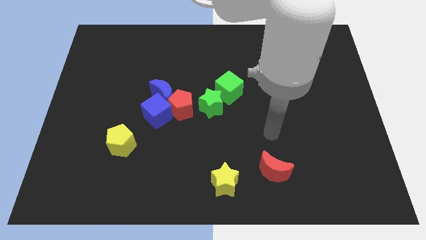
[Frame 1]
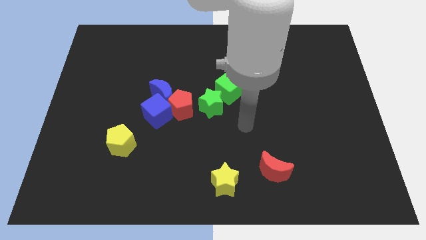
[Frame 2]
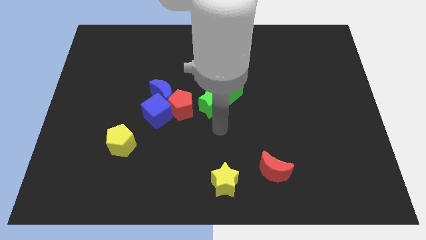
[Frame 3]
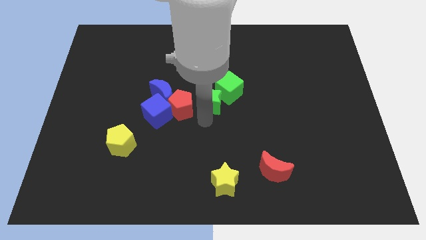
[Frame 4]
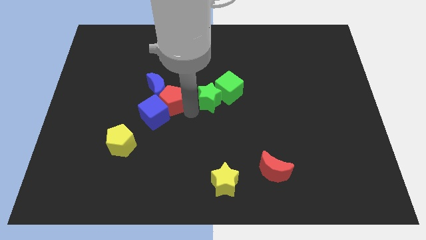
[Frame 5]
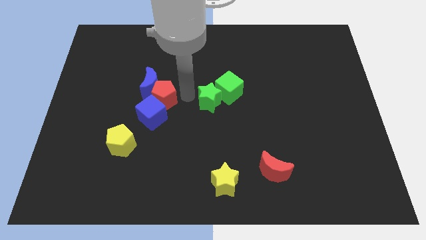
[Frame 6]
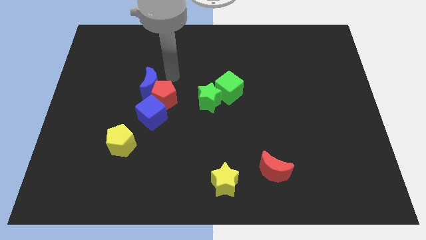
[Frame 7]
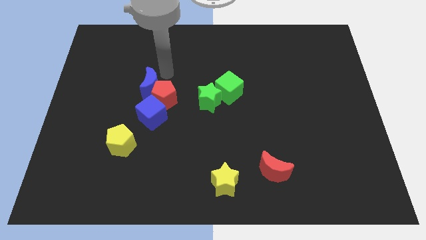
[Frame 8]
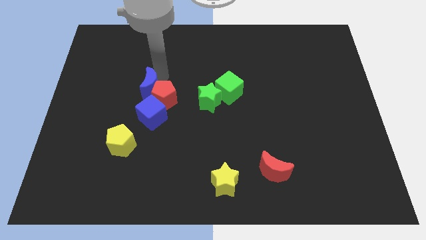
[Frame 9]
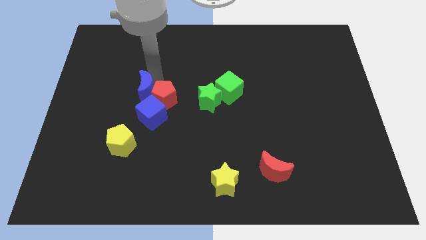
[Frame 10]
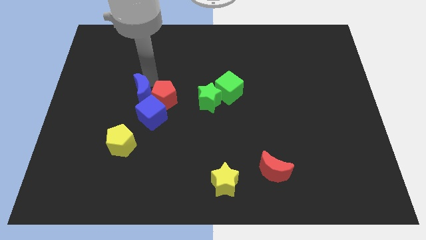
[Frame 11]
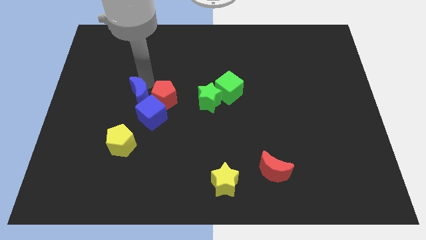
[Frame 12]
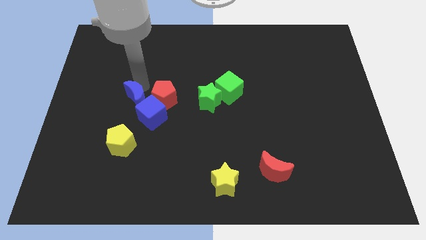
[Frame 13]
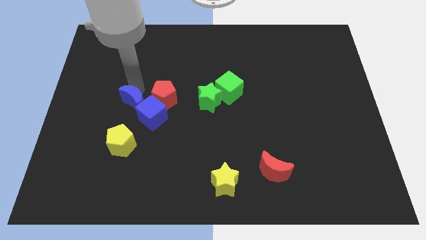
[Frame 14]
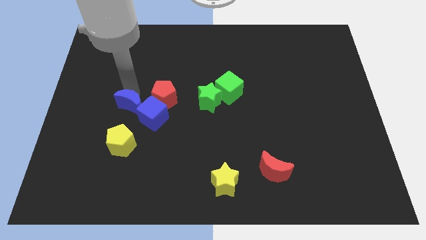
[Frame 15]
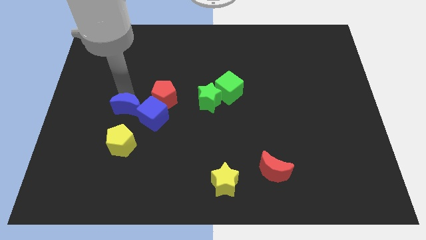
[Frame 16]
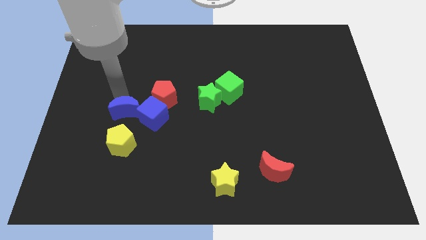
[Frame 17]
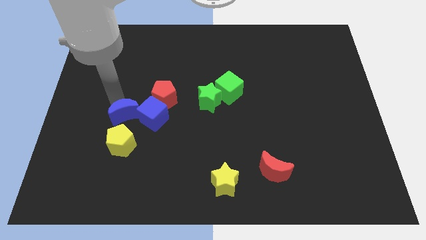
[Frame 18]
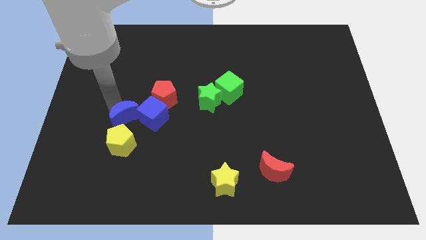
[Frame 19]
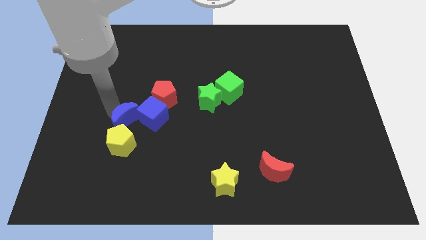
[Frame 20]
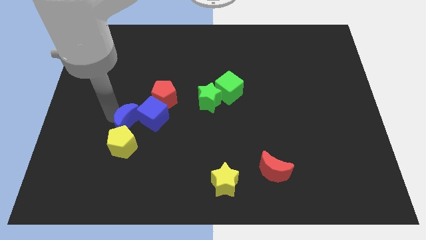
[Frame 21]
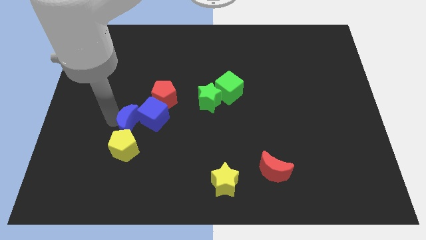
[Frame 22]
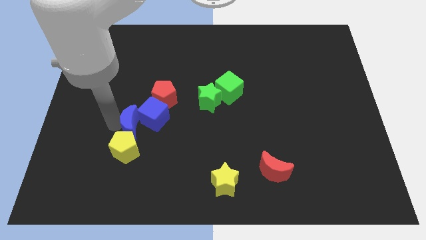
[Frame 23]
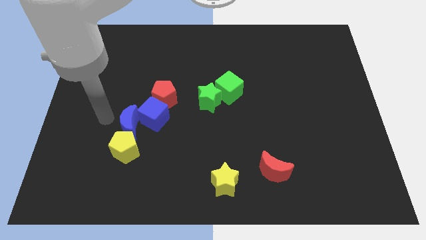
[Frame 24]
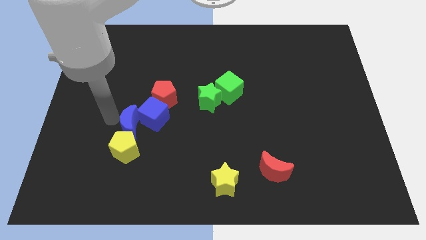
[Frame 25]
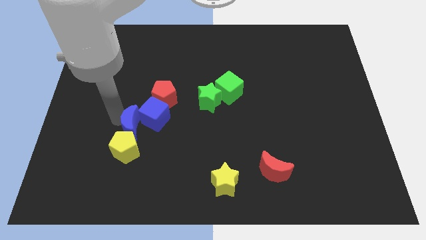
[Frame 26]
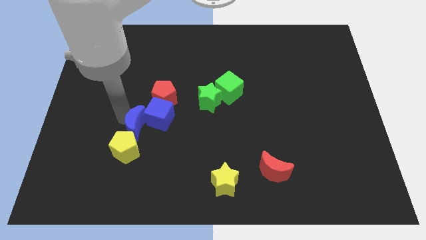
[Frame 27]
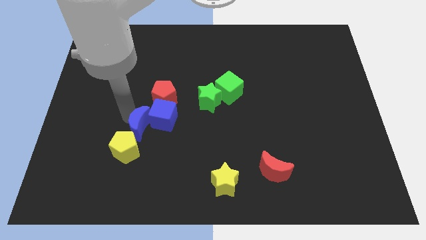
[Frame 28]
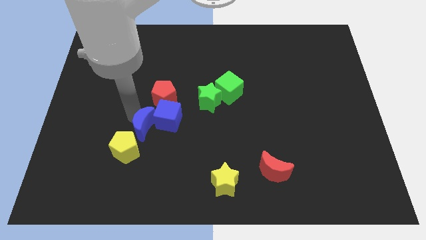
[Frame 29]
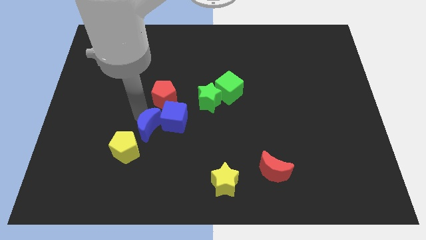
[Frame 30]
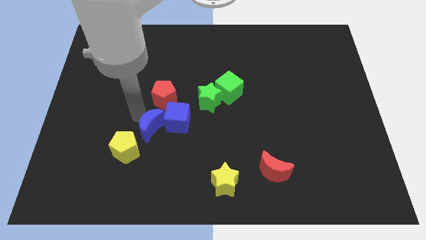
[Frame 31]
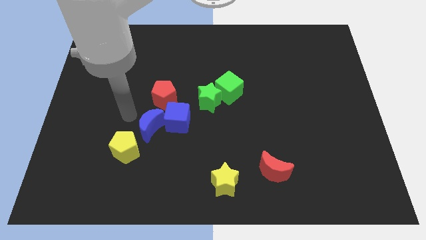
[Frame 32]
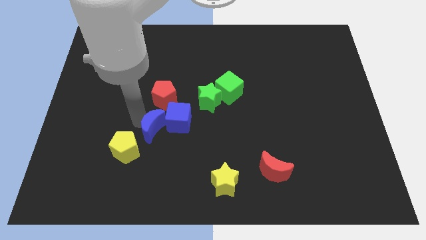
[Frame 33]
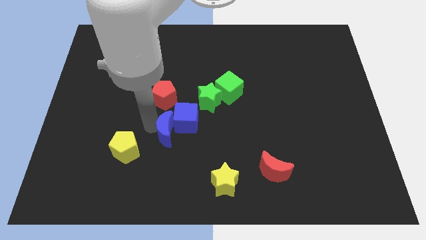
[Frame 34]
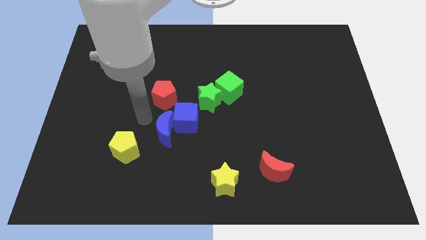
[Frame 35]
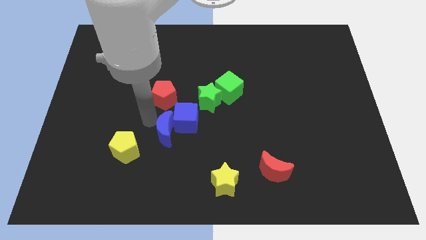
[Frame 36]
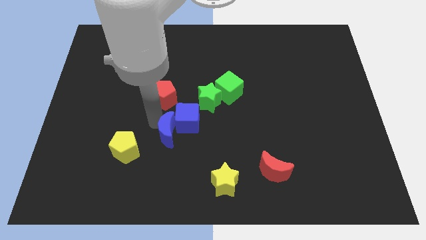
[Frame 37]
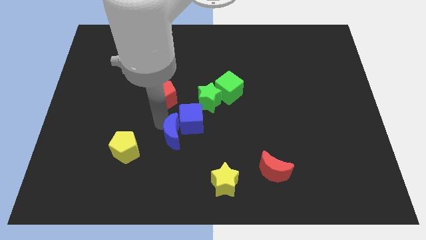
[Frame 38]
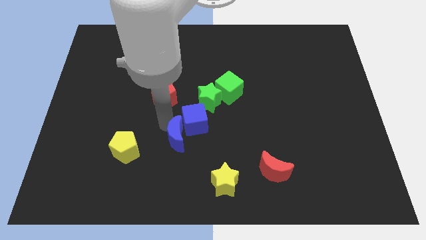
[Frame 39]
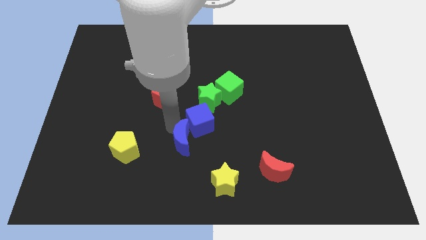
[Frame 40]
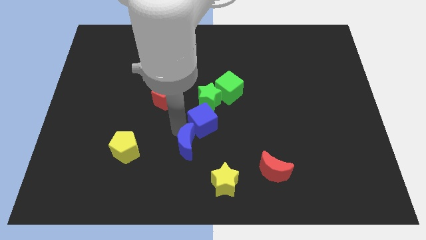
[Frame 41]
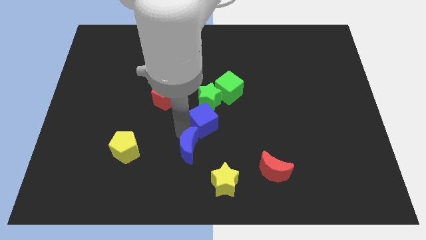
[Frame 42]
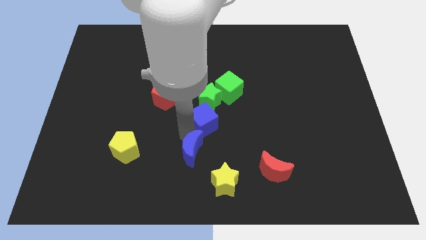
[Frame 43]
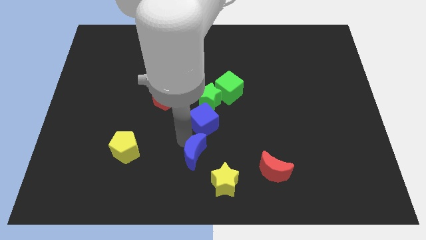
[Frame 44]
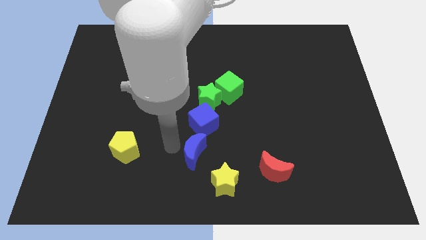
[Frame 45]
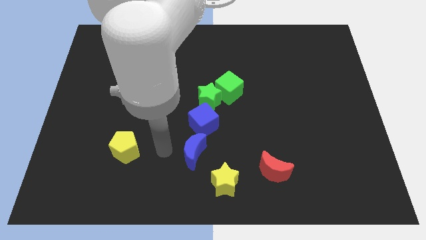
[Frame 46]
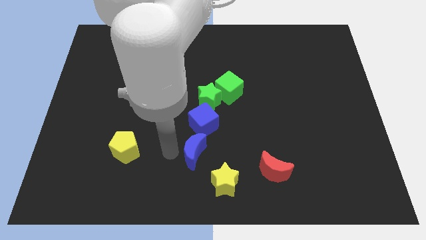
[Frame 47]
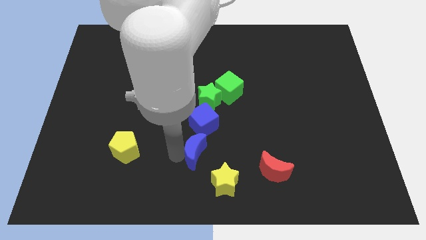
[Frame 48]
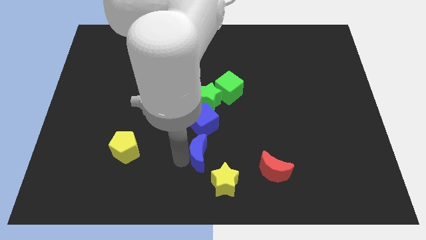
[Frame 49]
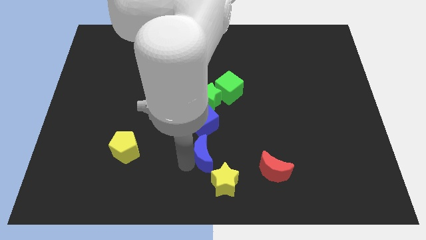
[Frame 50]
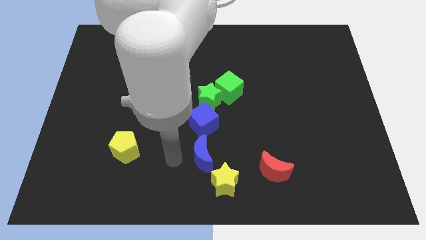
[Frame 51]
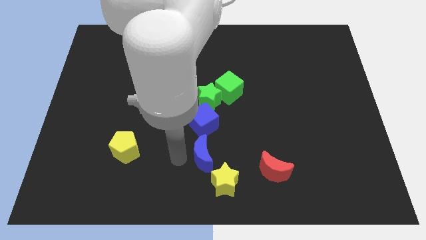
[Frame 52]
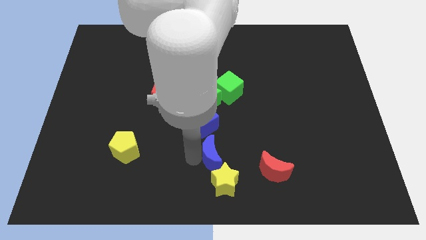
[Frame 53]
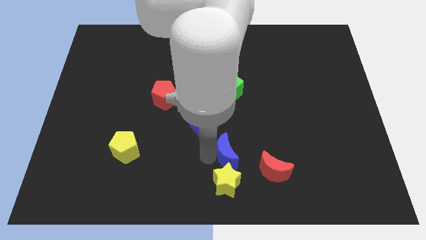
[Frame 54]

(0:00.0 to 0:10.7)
slide the blue moon diagonally up and to the right of the yellow star

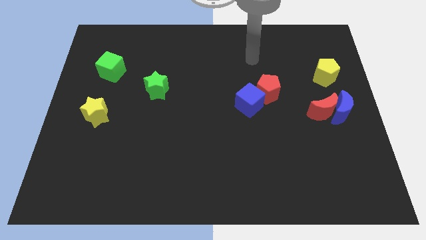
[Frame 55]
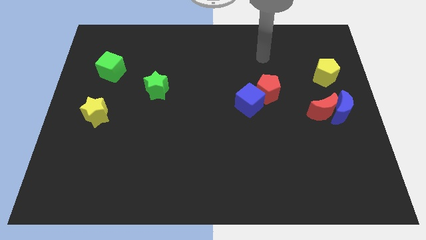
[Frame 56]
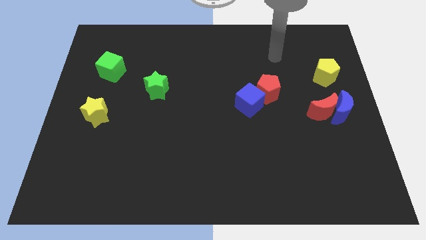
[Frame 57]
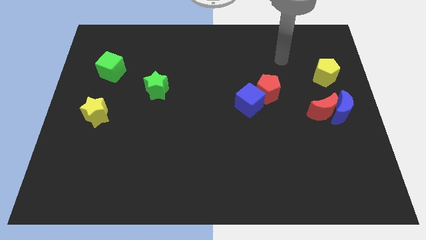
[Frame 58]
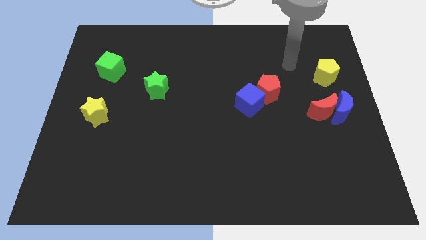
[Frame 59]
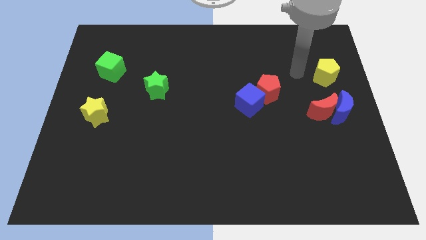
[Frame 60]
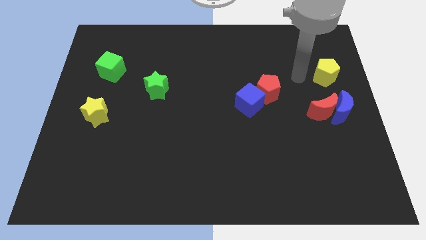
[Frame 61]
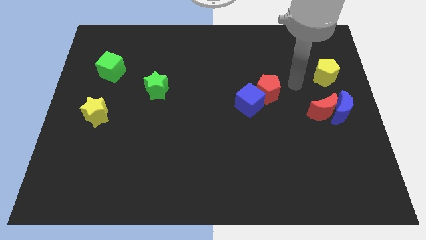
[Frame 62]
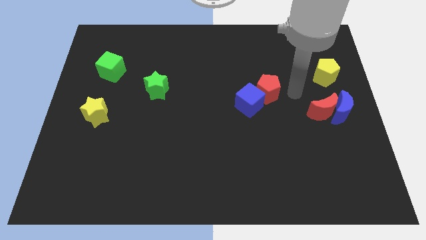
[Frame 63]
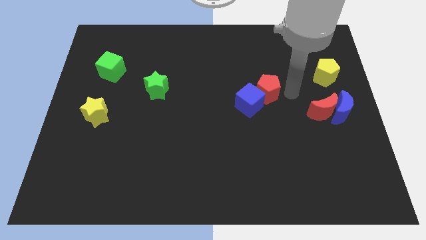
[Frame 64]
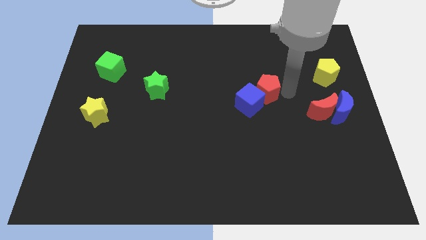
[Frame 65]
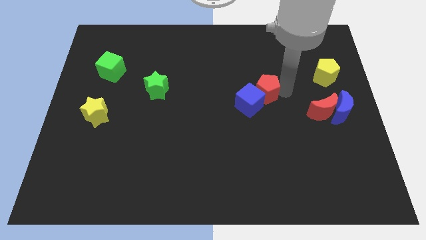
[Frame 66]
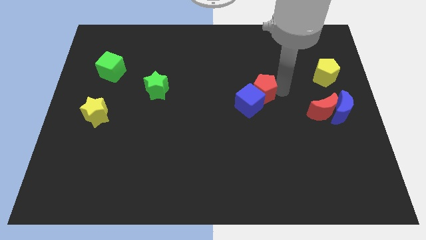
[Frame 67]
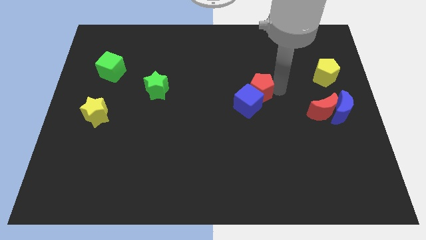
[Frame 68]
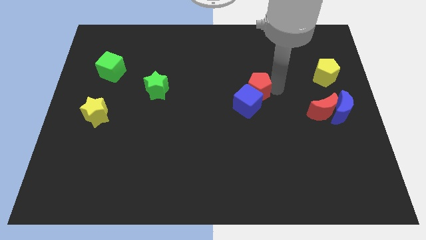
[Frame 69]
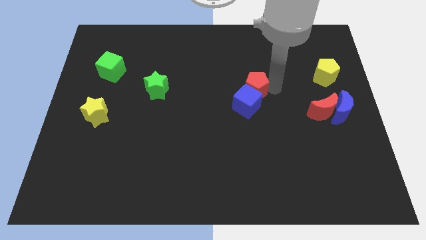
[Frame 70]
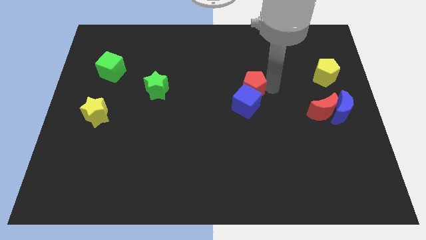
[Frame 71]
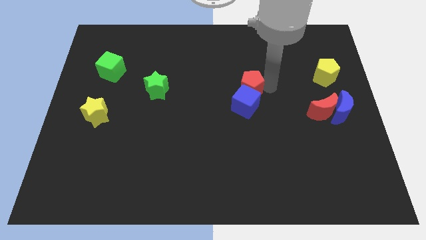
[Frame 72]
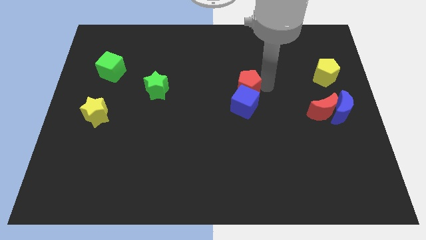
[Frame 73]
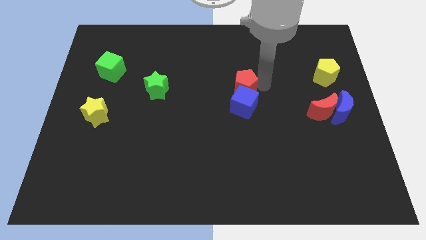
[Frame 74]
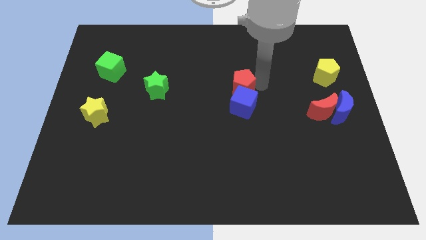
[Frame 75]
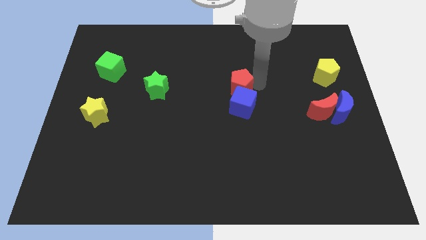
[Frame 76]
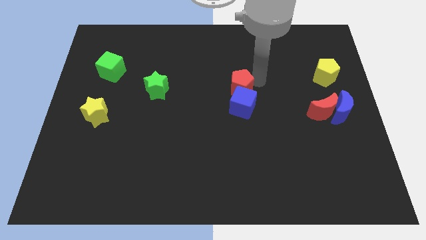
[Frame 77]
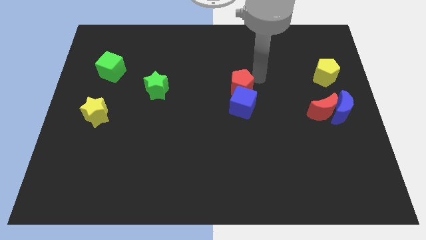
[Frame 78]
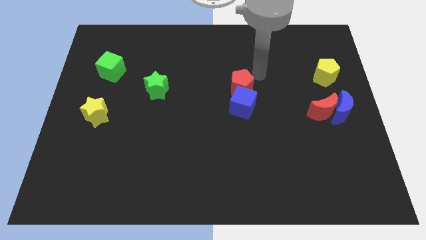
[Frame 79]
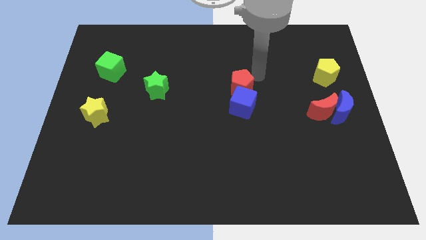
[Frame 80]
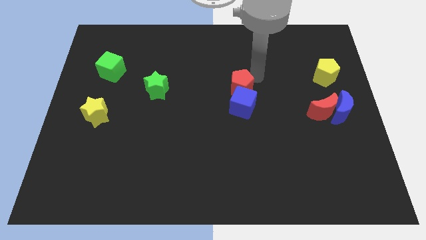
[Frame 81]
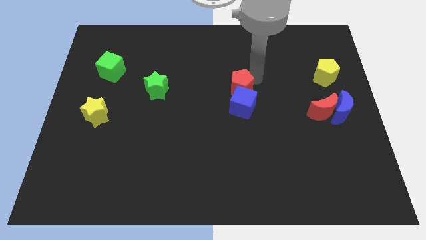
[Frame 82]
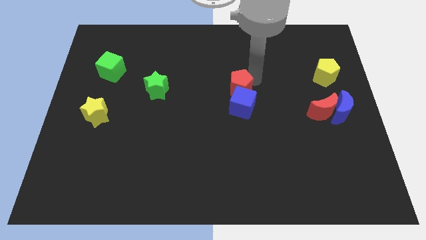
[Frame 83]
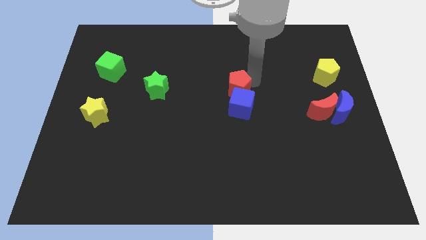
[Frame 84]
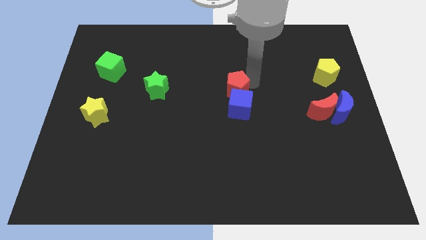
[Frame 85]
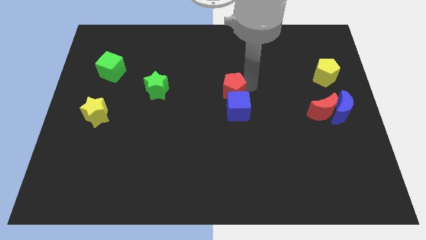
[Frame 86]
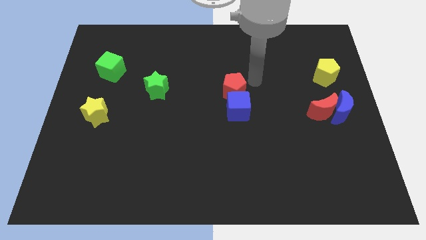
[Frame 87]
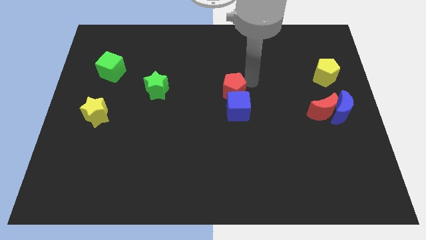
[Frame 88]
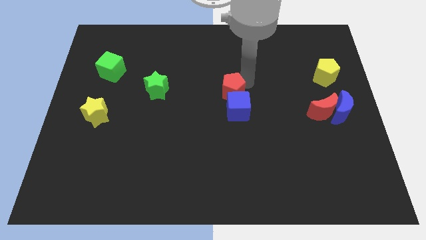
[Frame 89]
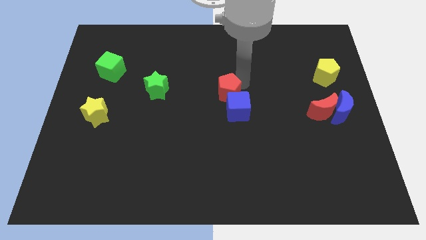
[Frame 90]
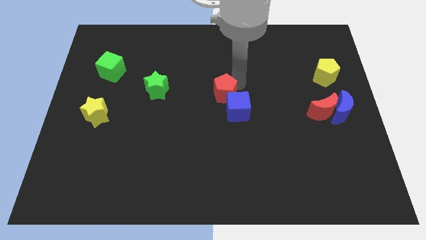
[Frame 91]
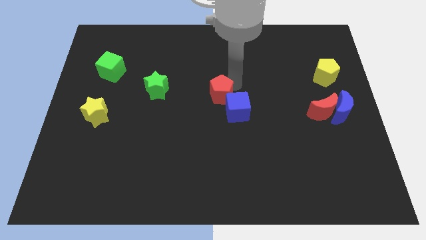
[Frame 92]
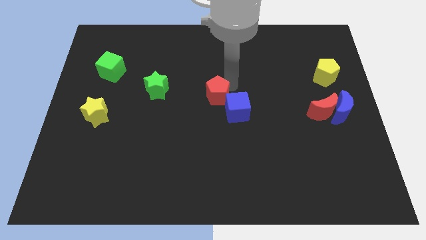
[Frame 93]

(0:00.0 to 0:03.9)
push the red pentagon to the left of the blue cube
